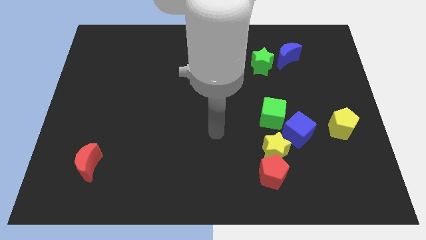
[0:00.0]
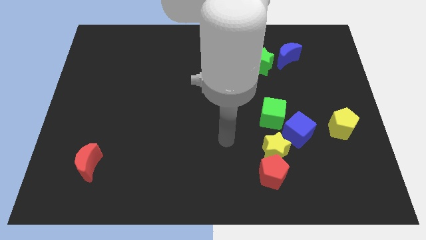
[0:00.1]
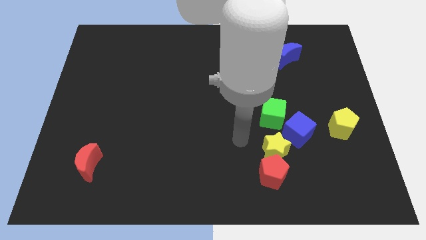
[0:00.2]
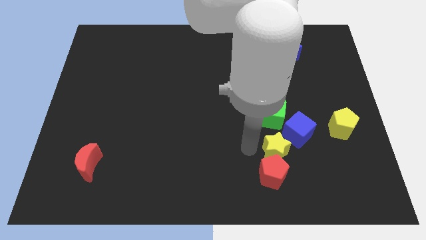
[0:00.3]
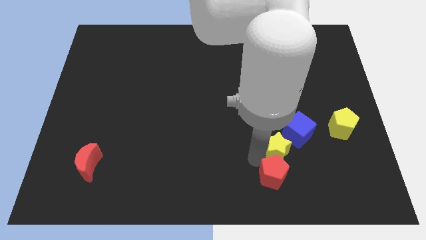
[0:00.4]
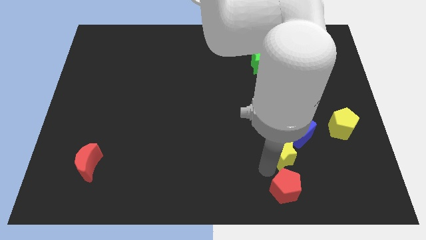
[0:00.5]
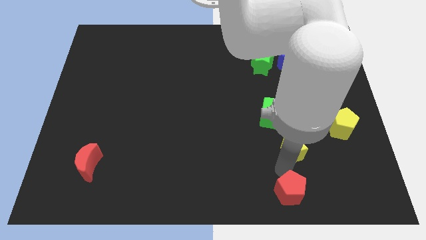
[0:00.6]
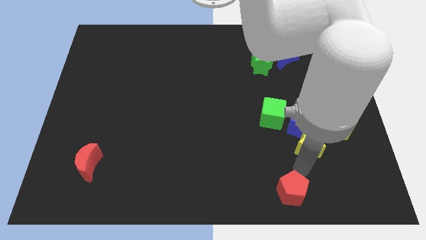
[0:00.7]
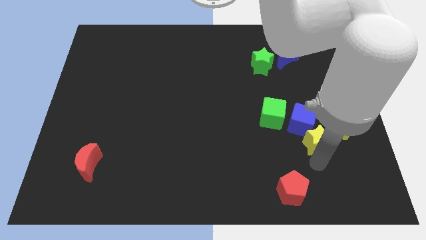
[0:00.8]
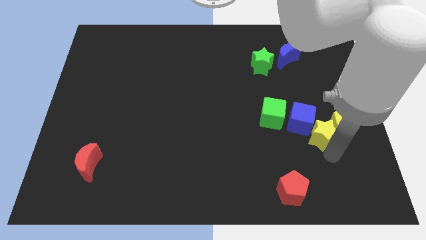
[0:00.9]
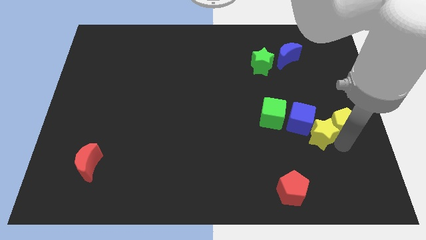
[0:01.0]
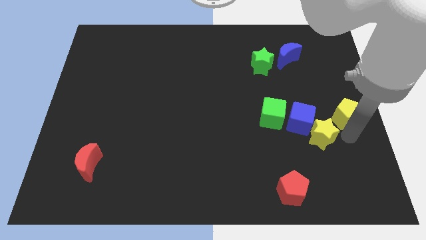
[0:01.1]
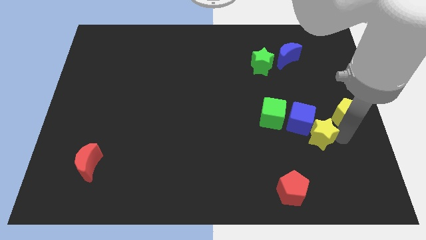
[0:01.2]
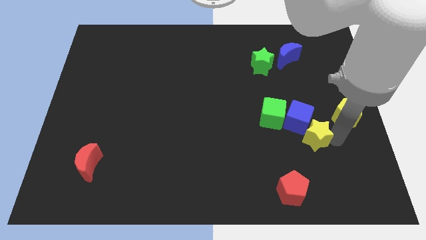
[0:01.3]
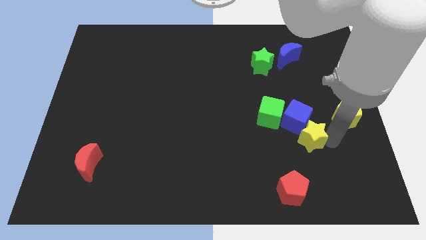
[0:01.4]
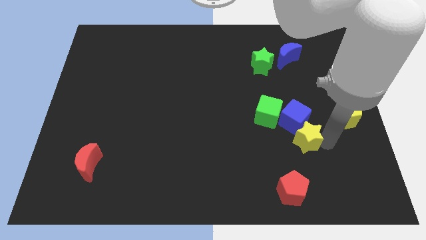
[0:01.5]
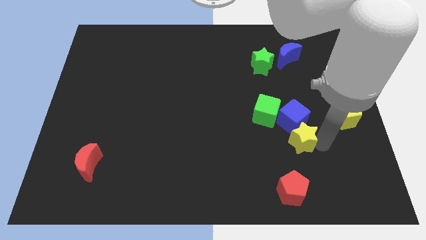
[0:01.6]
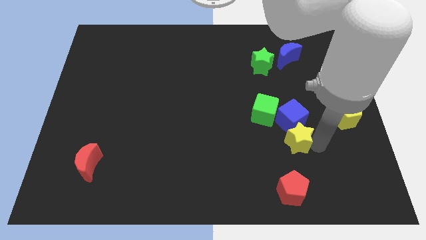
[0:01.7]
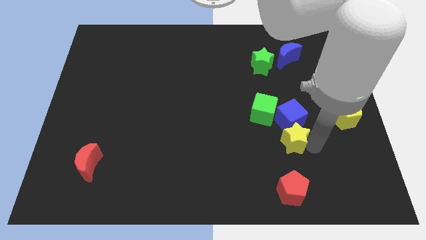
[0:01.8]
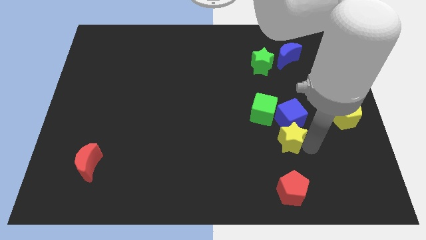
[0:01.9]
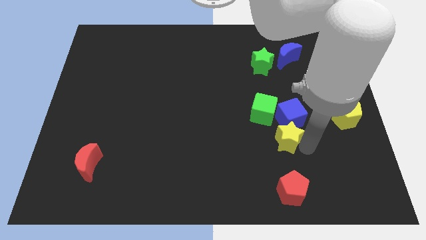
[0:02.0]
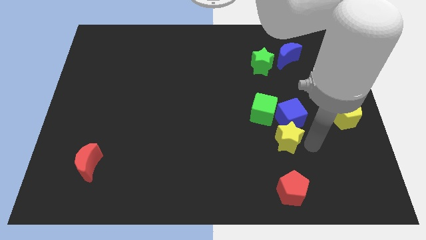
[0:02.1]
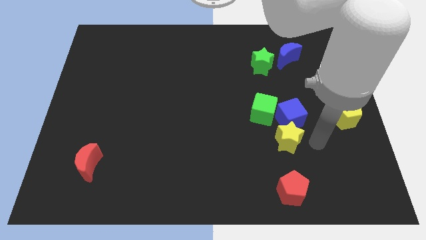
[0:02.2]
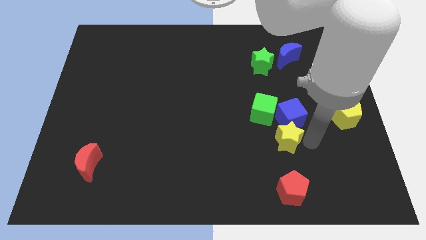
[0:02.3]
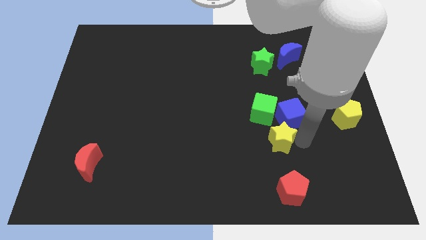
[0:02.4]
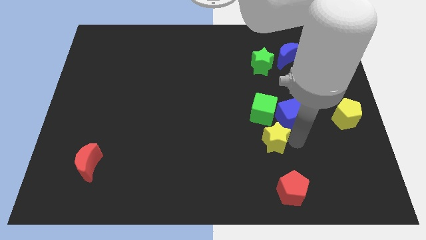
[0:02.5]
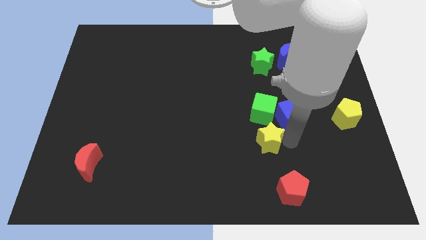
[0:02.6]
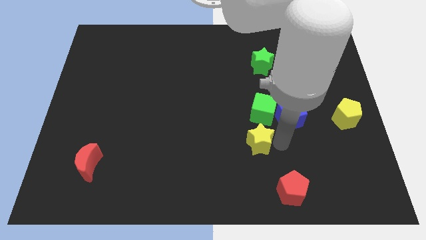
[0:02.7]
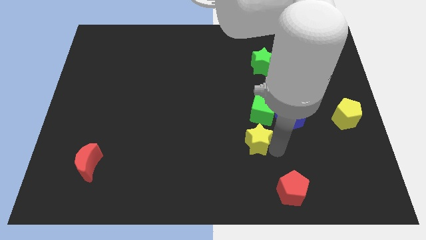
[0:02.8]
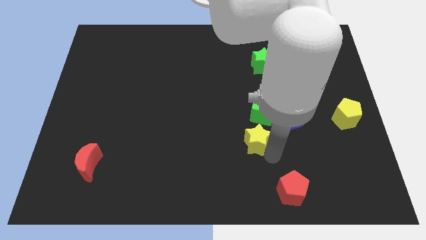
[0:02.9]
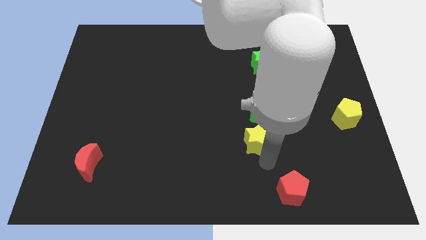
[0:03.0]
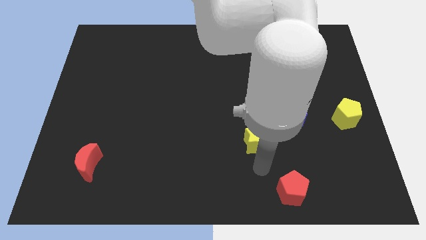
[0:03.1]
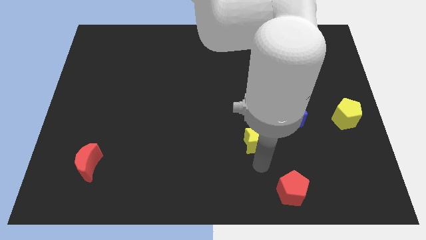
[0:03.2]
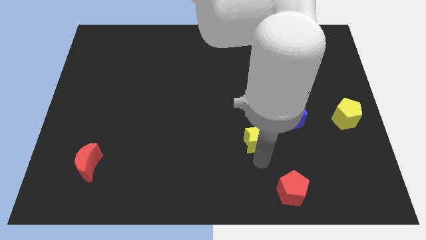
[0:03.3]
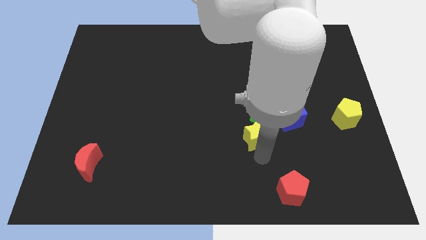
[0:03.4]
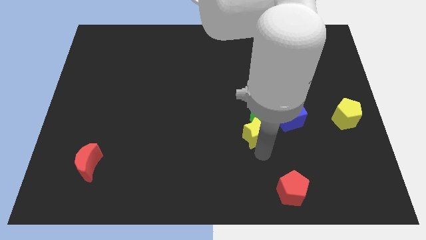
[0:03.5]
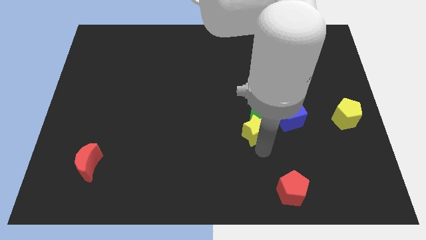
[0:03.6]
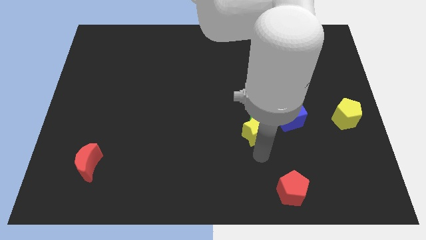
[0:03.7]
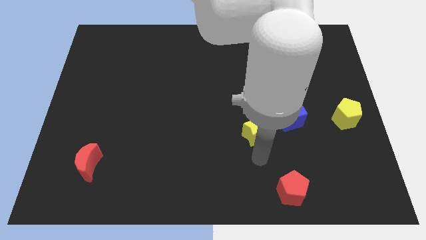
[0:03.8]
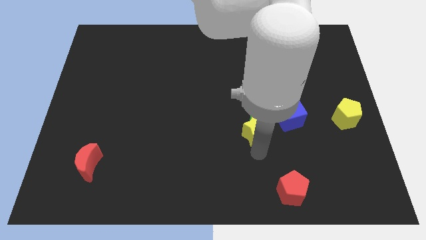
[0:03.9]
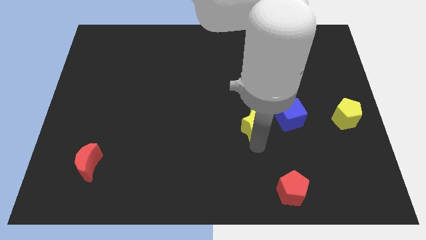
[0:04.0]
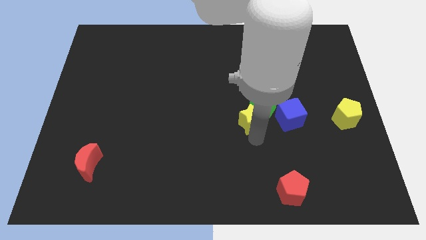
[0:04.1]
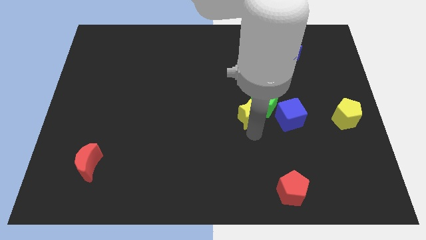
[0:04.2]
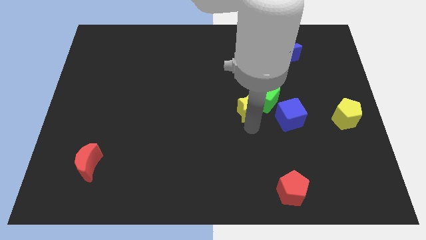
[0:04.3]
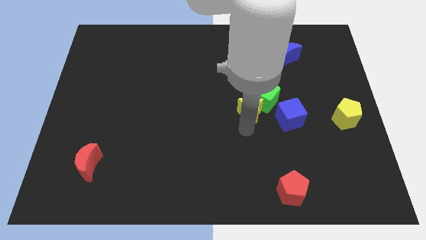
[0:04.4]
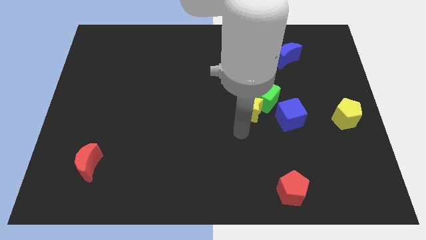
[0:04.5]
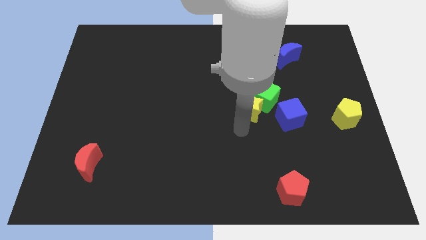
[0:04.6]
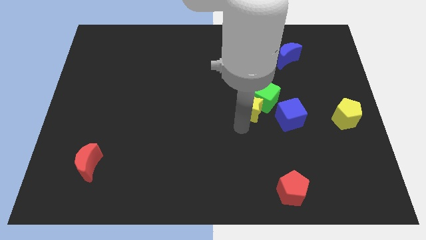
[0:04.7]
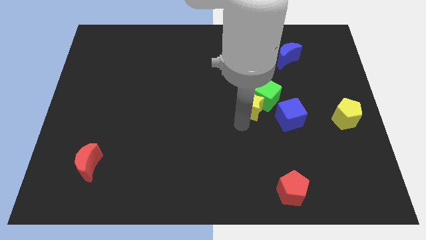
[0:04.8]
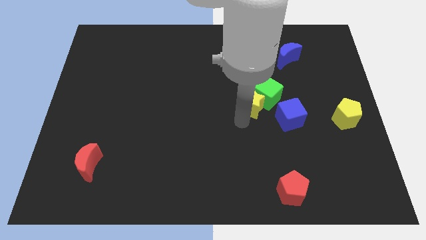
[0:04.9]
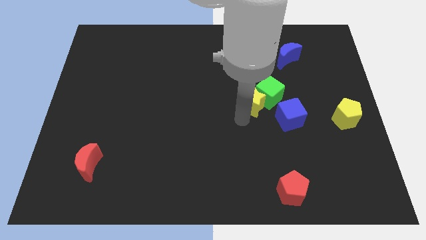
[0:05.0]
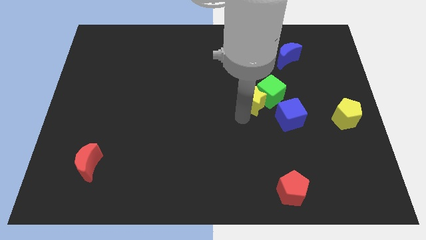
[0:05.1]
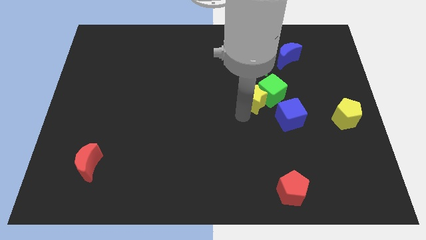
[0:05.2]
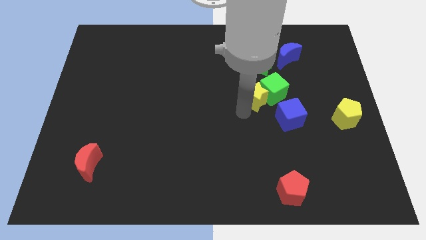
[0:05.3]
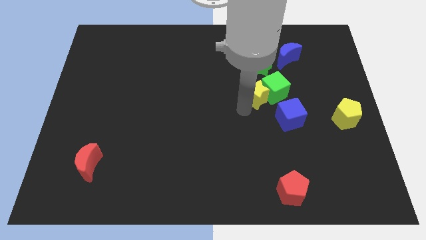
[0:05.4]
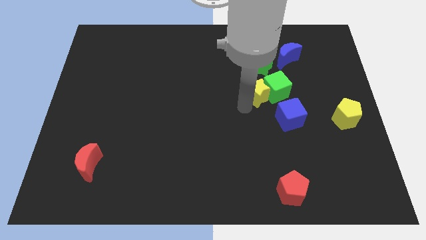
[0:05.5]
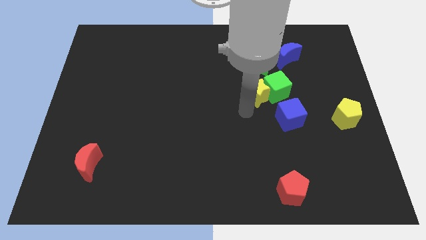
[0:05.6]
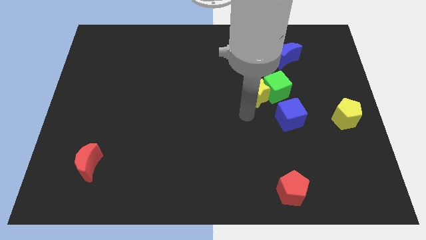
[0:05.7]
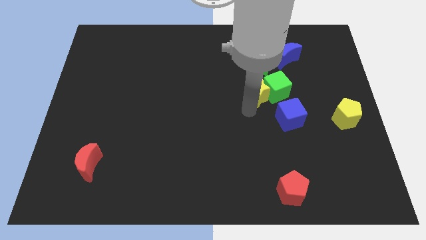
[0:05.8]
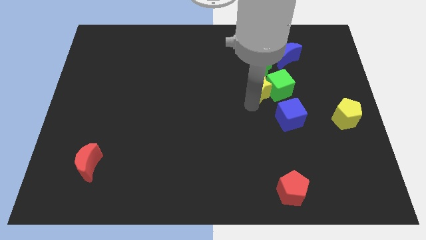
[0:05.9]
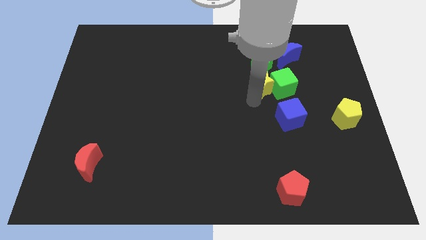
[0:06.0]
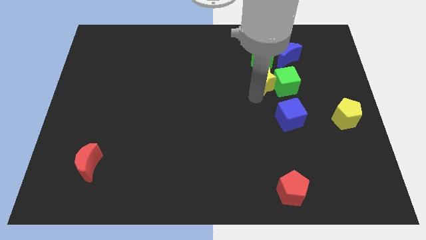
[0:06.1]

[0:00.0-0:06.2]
slide the yellow star to the green star

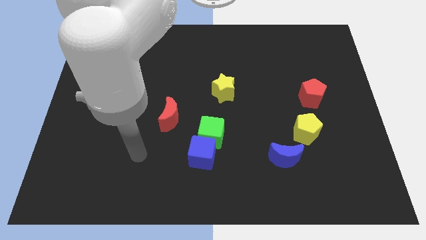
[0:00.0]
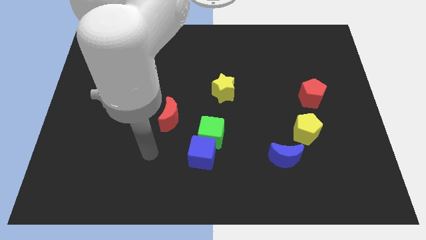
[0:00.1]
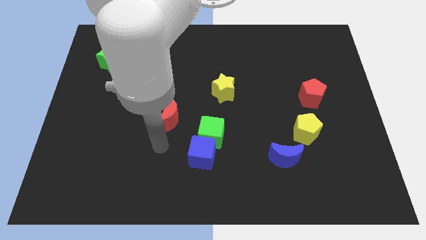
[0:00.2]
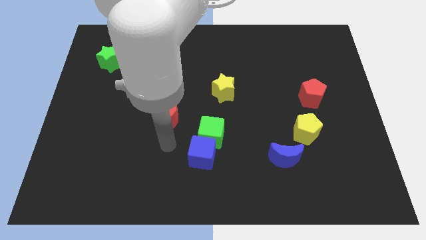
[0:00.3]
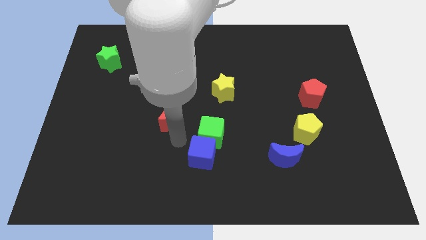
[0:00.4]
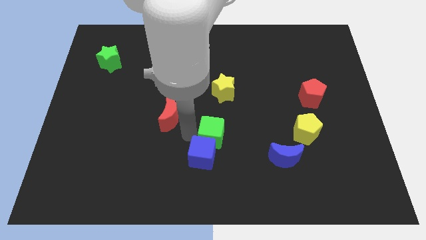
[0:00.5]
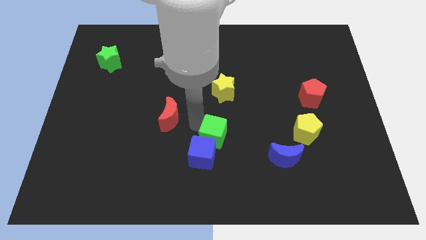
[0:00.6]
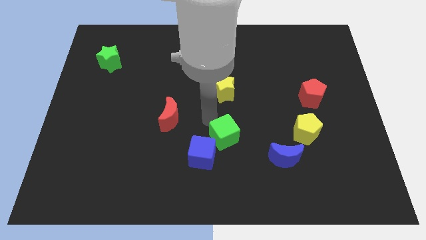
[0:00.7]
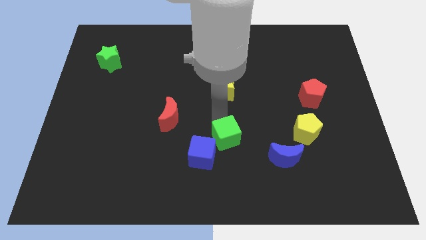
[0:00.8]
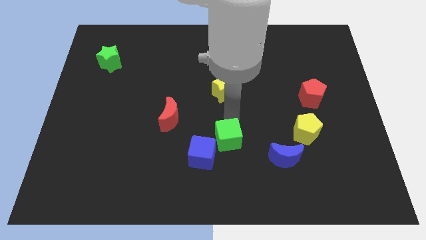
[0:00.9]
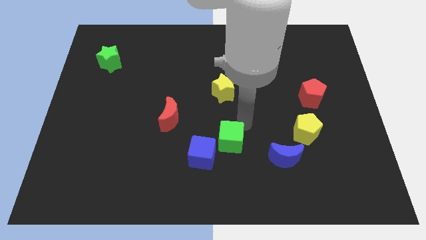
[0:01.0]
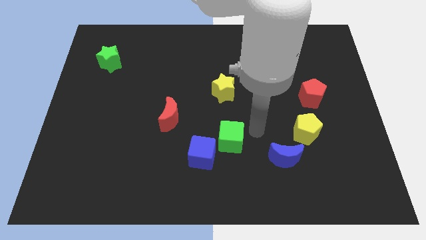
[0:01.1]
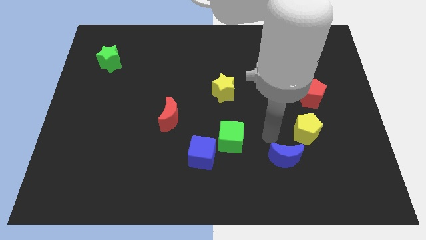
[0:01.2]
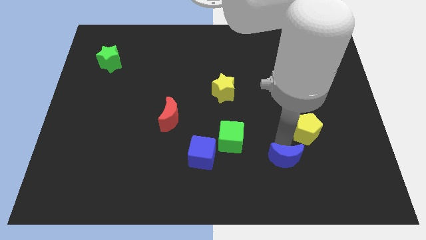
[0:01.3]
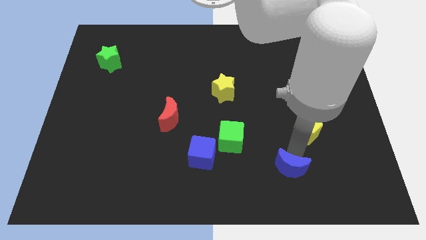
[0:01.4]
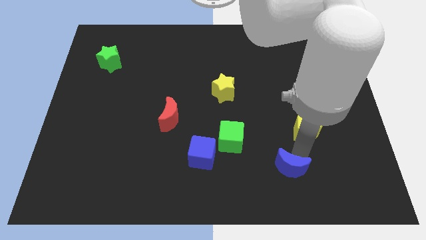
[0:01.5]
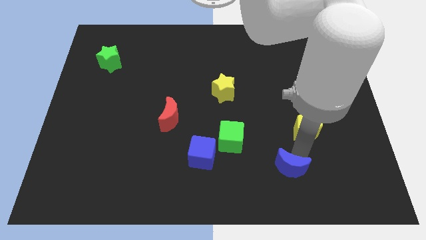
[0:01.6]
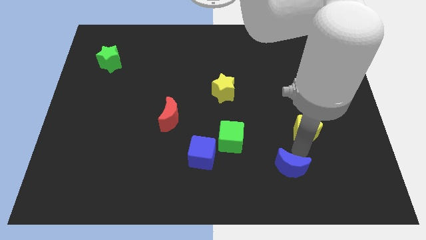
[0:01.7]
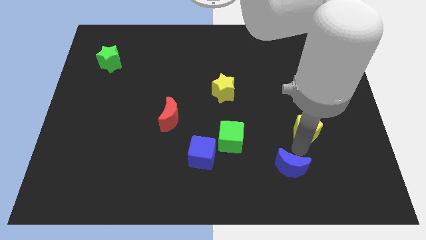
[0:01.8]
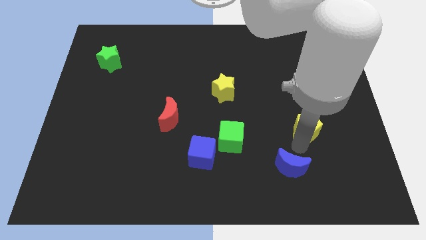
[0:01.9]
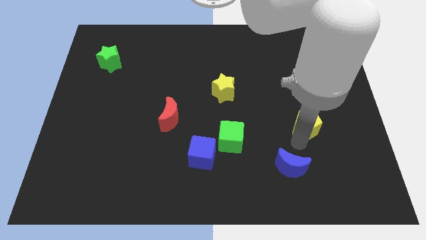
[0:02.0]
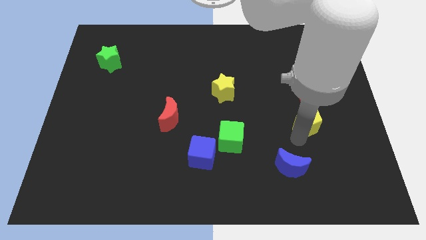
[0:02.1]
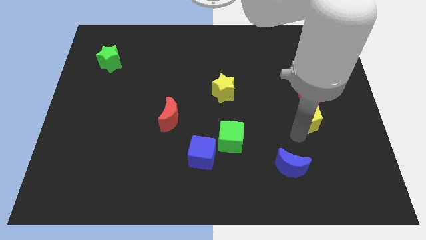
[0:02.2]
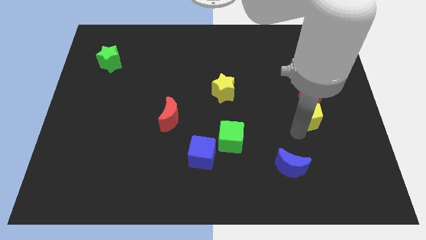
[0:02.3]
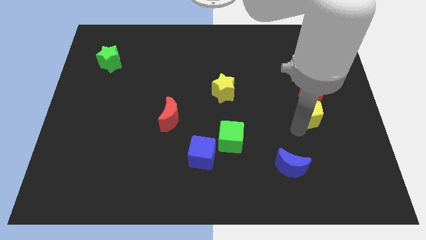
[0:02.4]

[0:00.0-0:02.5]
move the yellow pentagon towards the red pentagon
